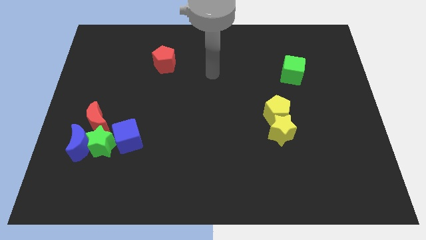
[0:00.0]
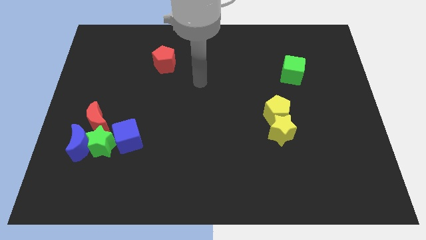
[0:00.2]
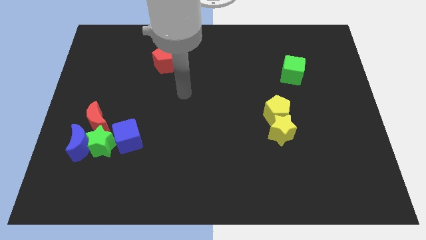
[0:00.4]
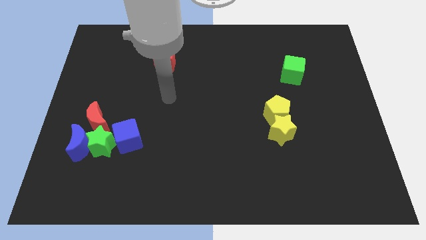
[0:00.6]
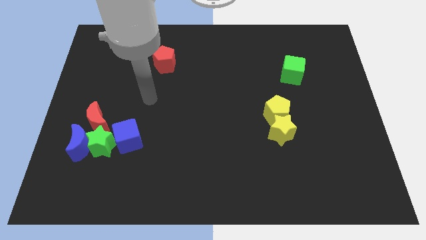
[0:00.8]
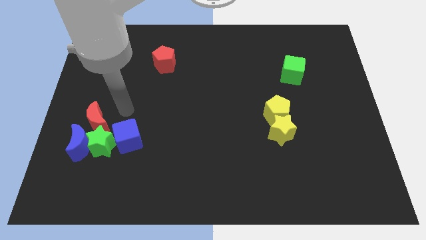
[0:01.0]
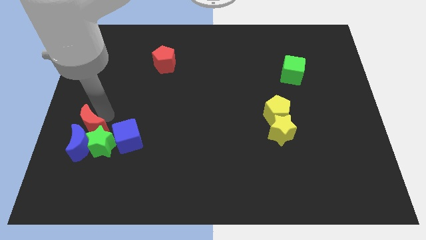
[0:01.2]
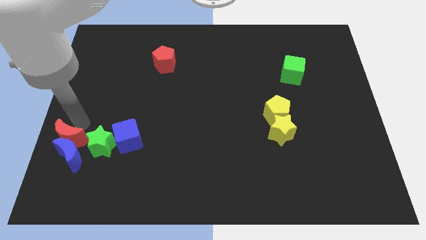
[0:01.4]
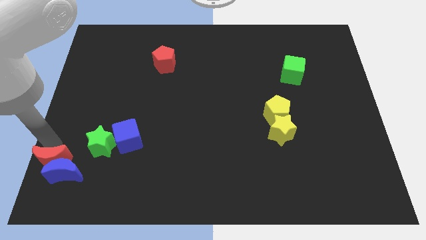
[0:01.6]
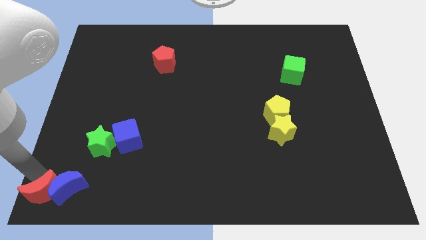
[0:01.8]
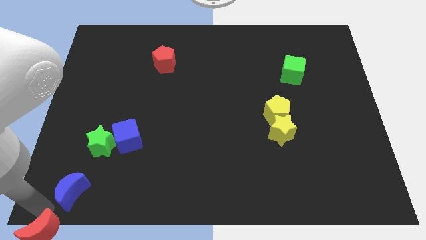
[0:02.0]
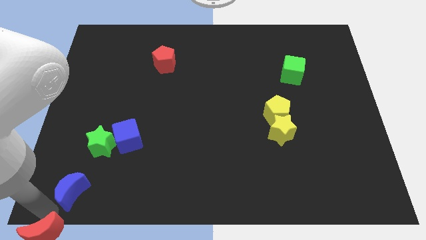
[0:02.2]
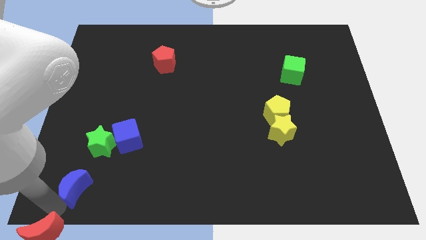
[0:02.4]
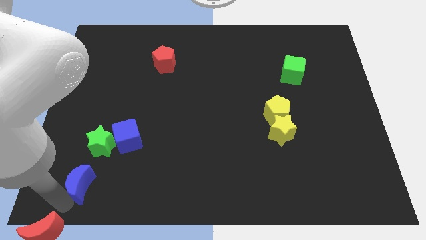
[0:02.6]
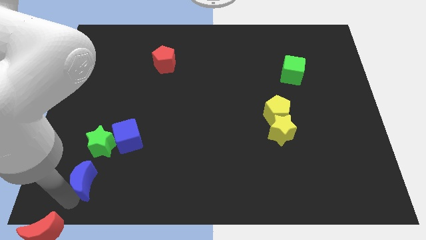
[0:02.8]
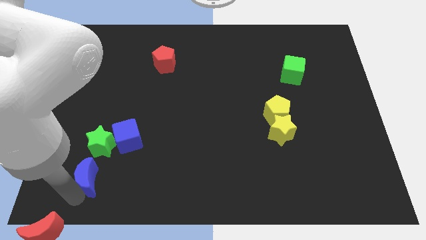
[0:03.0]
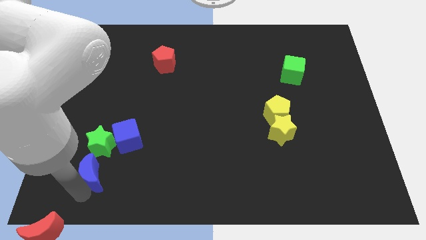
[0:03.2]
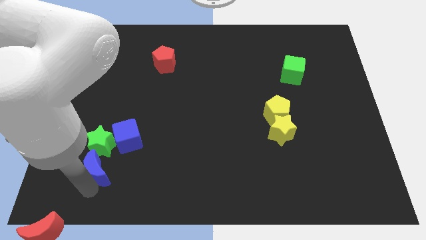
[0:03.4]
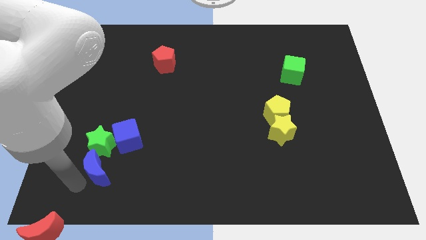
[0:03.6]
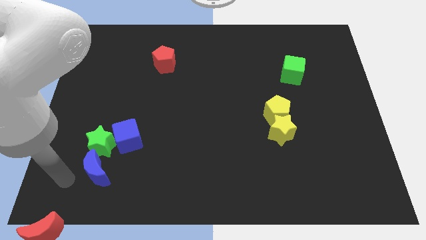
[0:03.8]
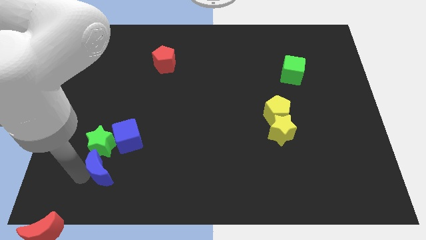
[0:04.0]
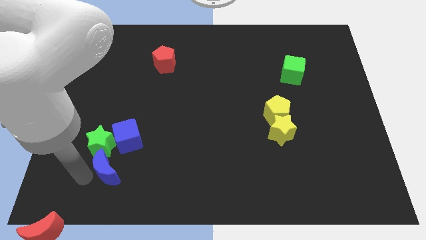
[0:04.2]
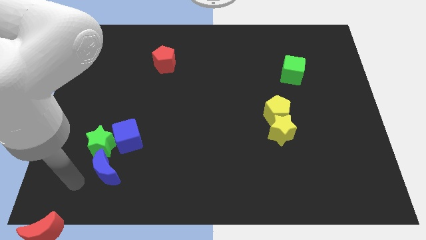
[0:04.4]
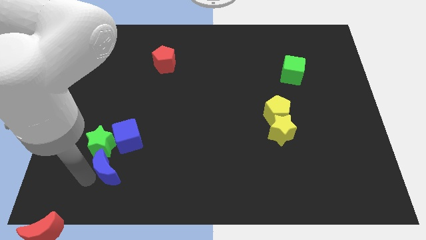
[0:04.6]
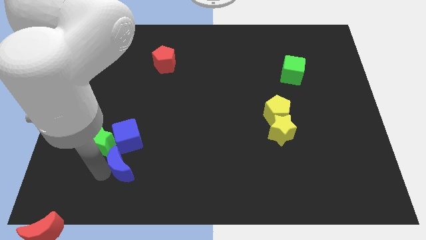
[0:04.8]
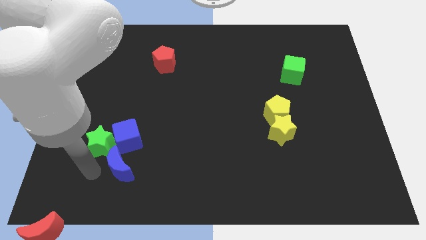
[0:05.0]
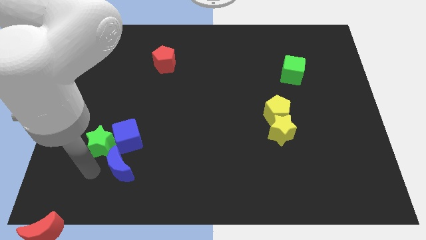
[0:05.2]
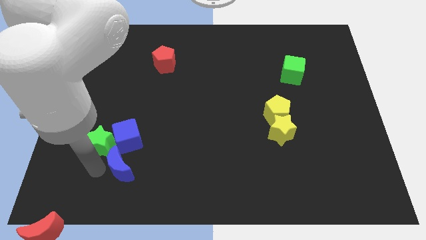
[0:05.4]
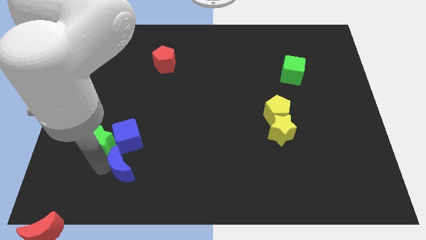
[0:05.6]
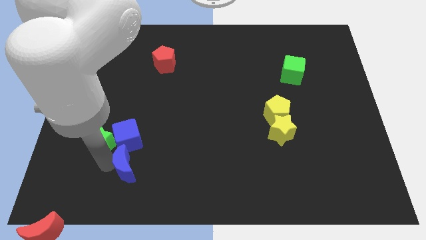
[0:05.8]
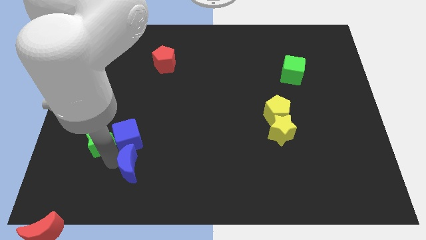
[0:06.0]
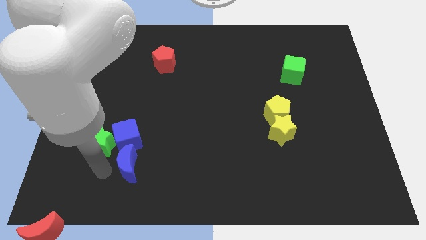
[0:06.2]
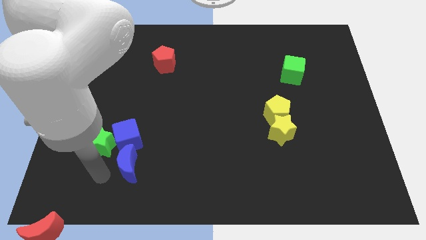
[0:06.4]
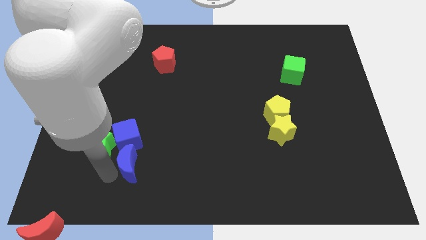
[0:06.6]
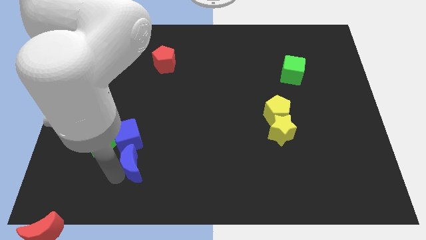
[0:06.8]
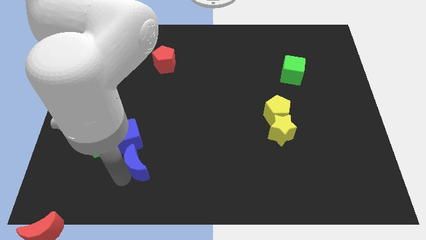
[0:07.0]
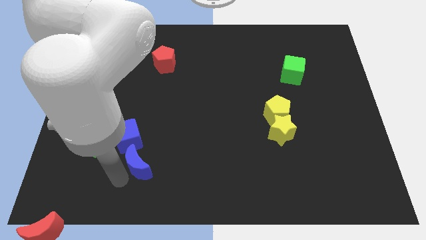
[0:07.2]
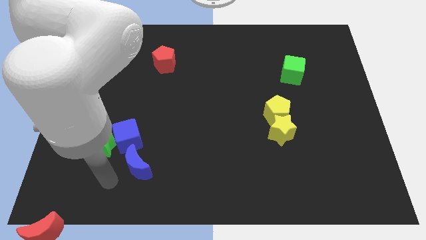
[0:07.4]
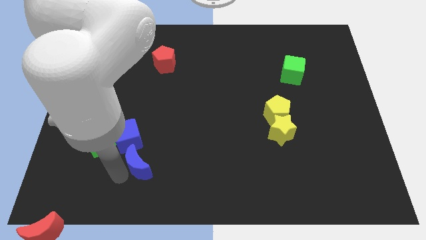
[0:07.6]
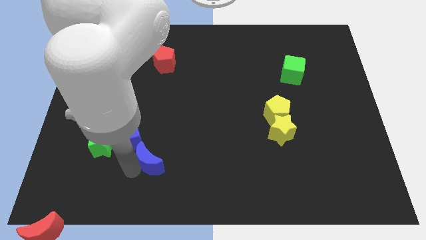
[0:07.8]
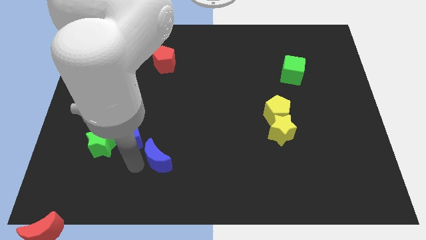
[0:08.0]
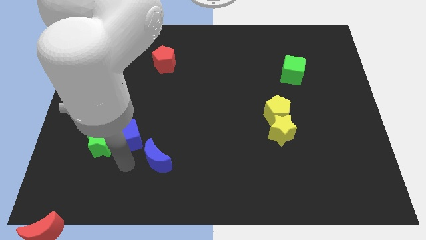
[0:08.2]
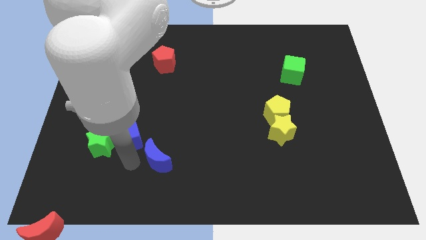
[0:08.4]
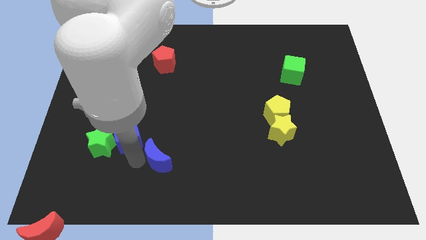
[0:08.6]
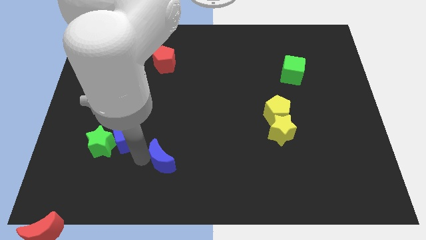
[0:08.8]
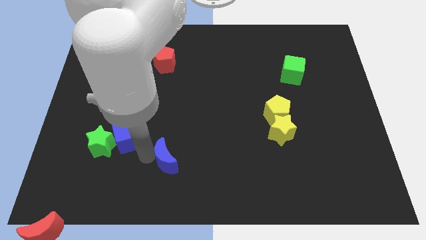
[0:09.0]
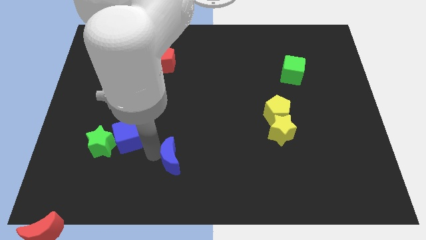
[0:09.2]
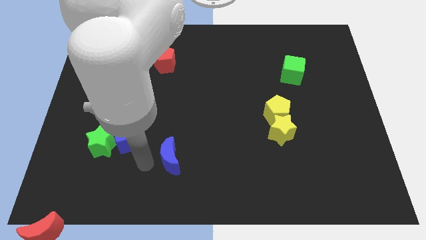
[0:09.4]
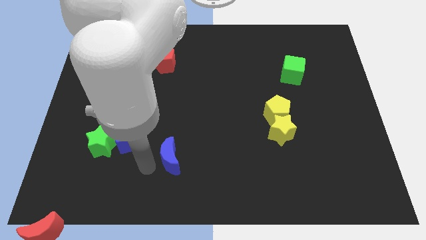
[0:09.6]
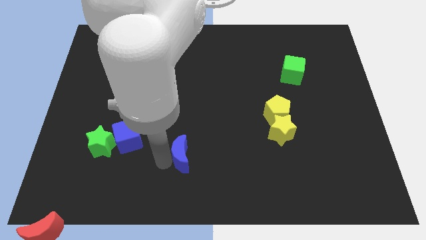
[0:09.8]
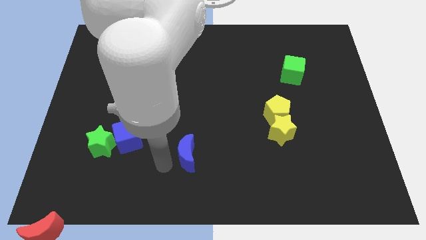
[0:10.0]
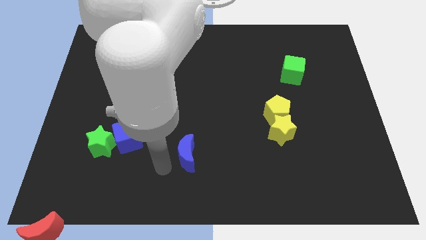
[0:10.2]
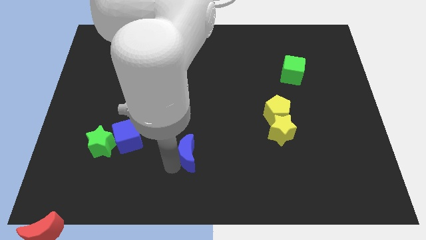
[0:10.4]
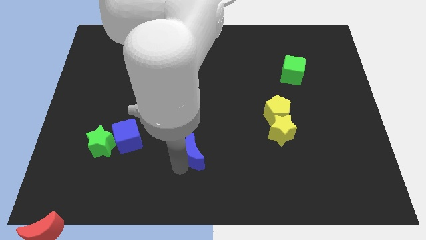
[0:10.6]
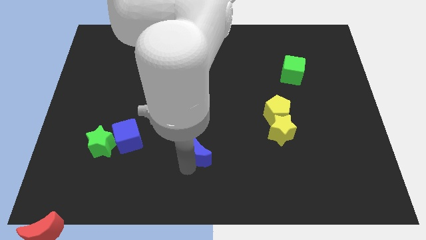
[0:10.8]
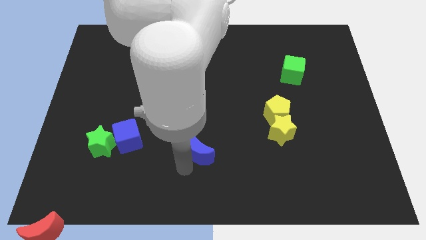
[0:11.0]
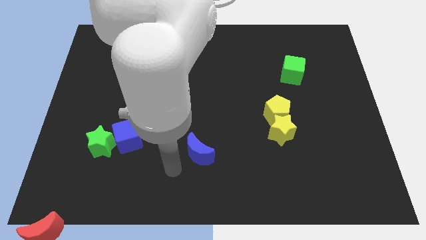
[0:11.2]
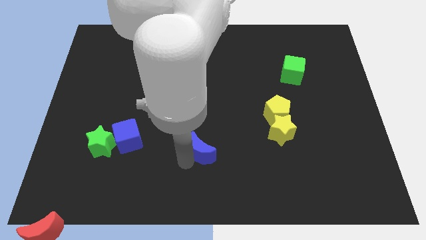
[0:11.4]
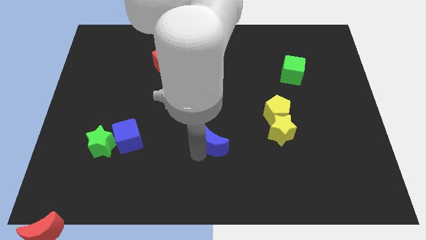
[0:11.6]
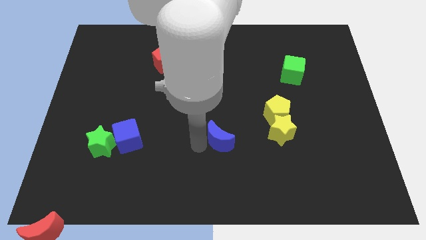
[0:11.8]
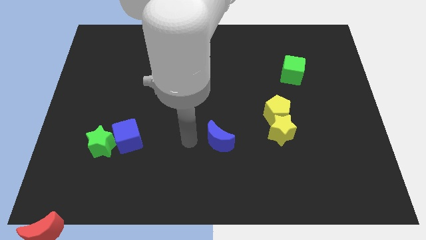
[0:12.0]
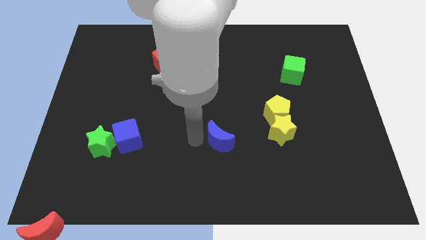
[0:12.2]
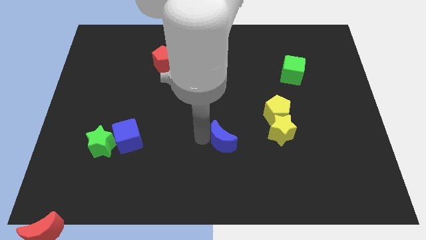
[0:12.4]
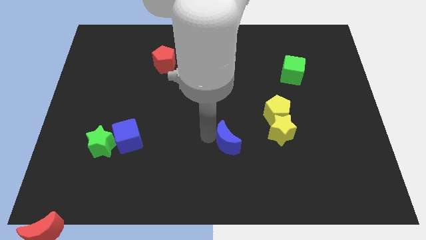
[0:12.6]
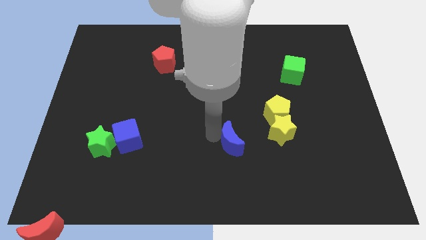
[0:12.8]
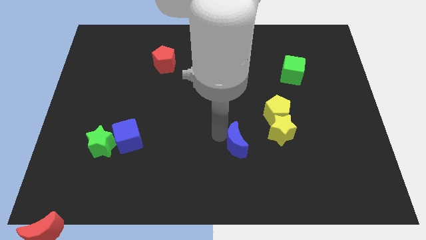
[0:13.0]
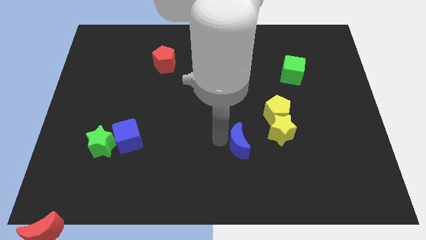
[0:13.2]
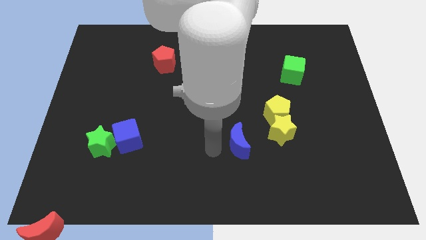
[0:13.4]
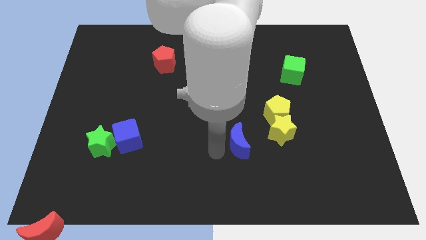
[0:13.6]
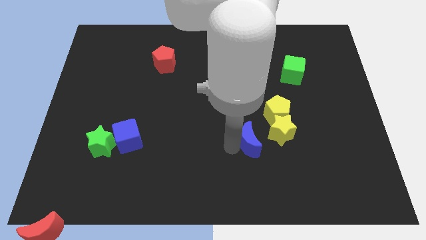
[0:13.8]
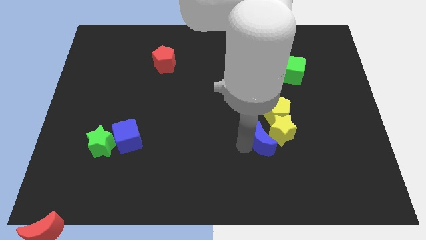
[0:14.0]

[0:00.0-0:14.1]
move the blue moon to the yellow star

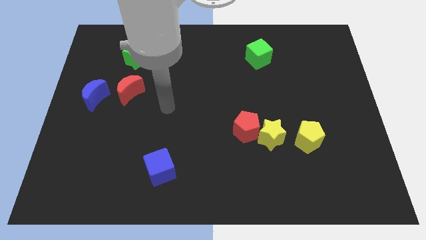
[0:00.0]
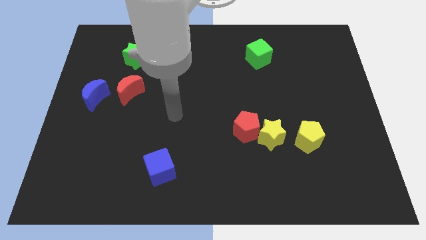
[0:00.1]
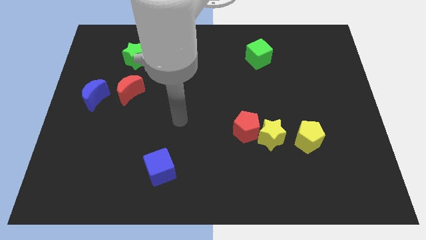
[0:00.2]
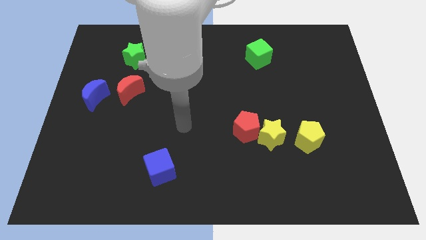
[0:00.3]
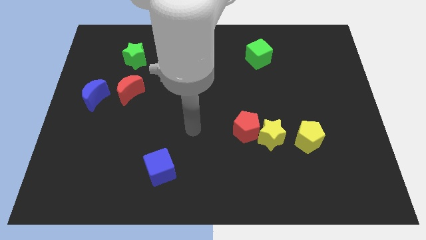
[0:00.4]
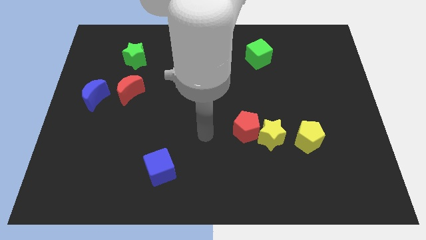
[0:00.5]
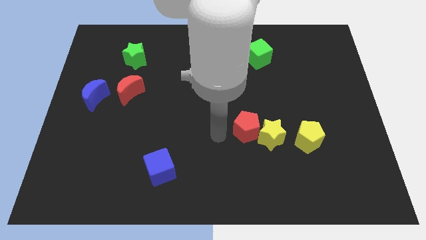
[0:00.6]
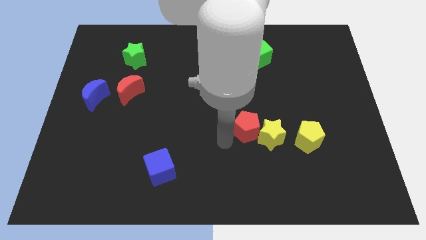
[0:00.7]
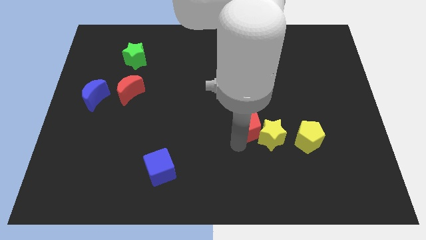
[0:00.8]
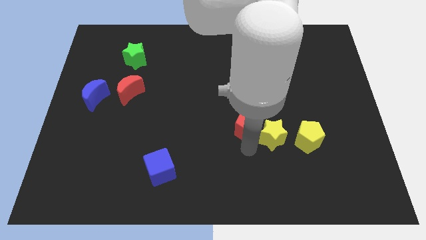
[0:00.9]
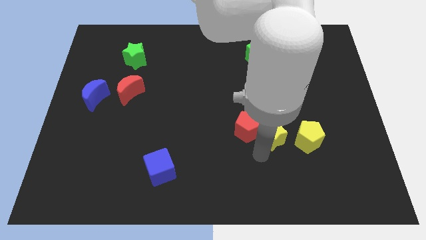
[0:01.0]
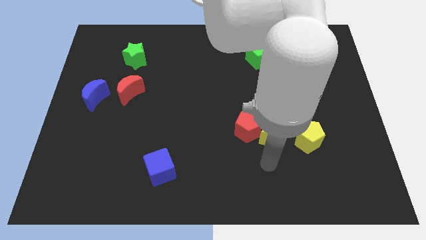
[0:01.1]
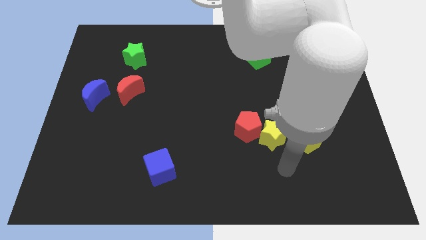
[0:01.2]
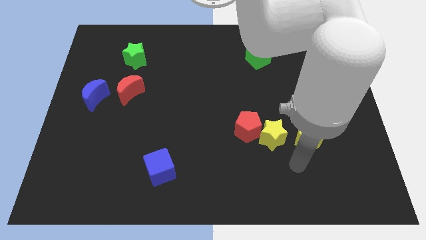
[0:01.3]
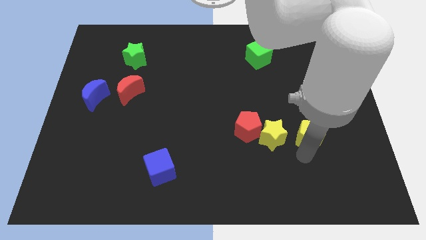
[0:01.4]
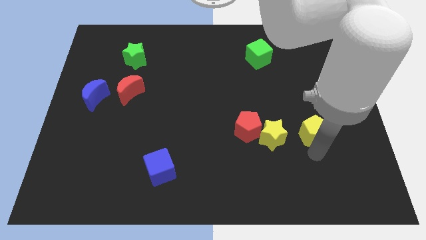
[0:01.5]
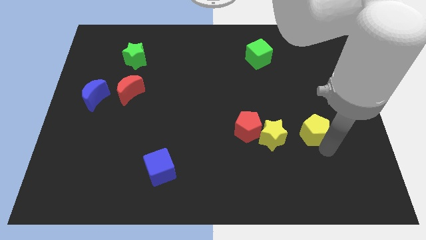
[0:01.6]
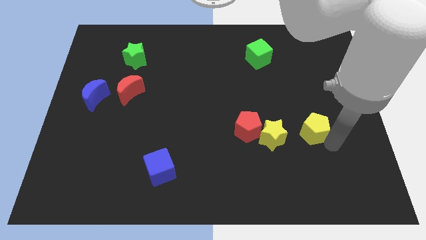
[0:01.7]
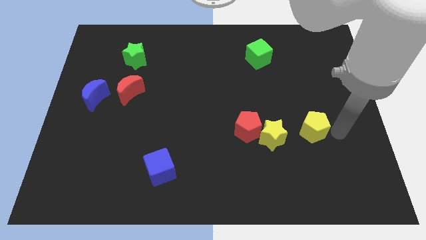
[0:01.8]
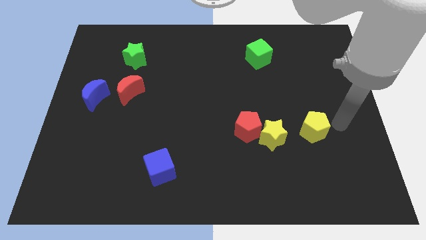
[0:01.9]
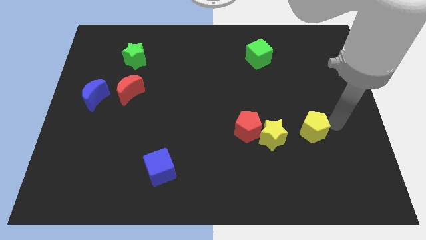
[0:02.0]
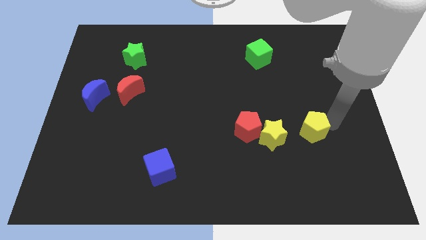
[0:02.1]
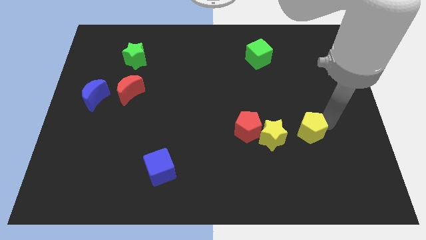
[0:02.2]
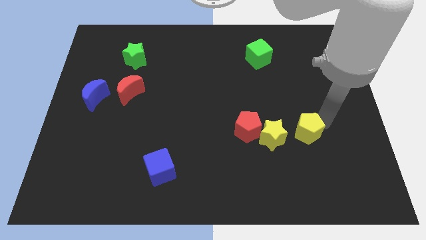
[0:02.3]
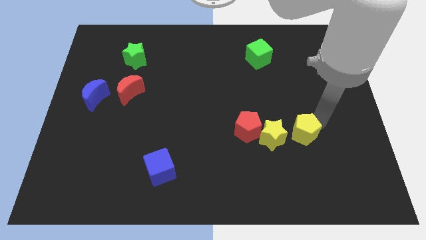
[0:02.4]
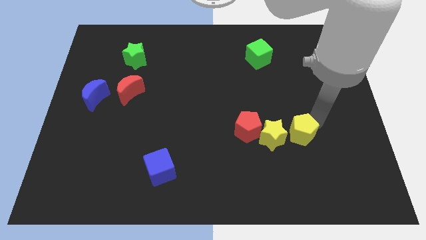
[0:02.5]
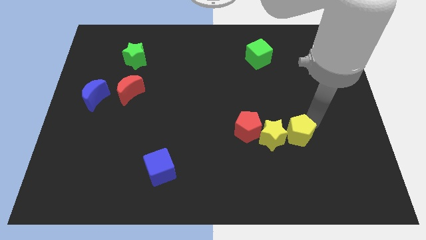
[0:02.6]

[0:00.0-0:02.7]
push the yellow pentagon to the yellow star
